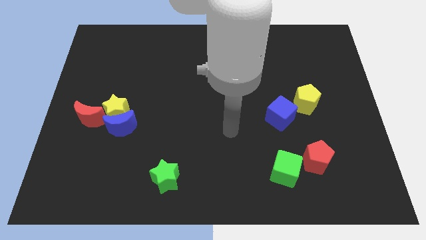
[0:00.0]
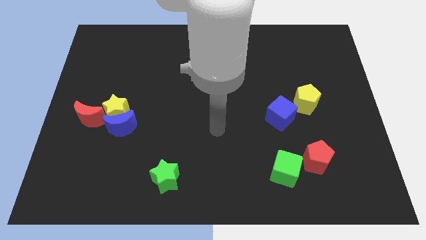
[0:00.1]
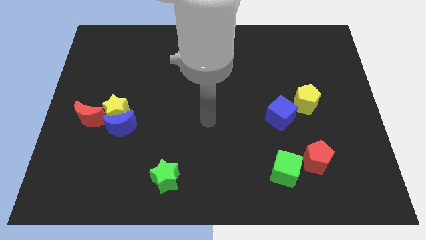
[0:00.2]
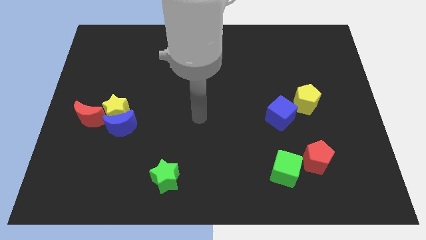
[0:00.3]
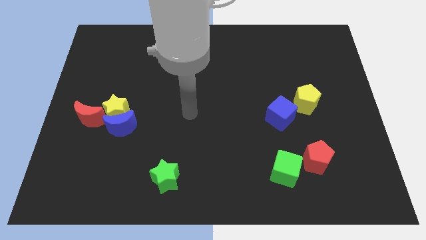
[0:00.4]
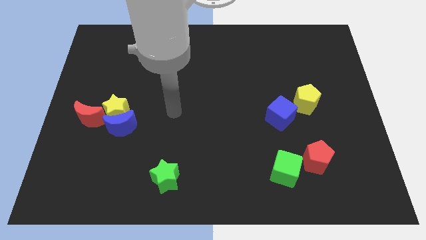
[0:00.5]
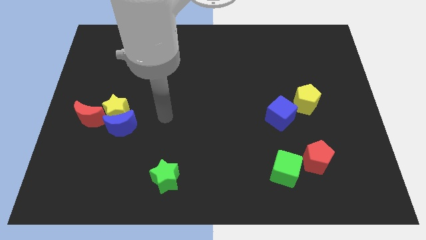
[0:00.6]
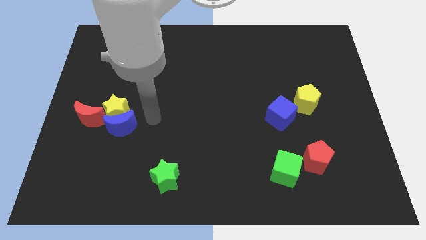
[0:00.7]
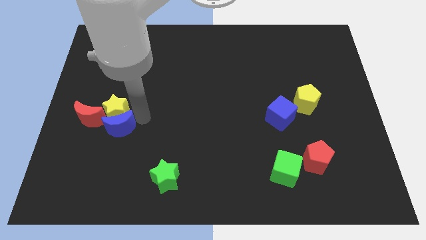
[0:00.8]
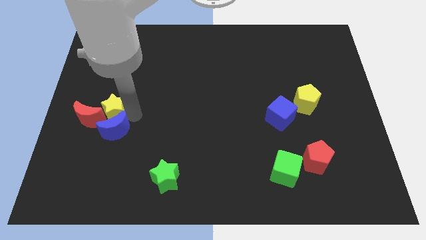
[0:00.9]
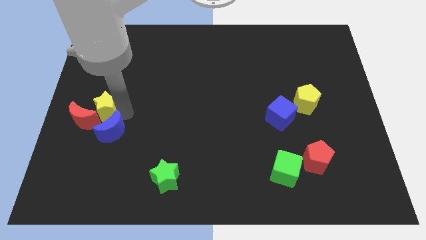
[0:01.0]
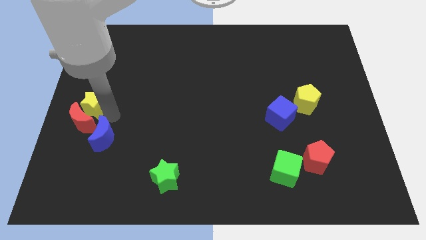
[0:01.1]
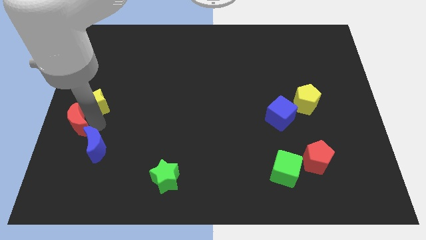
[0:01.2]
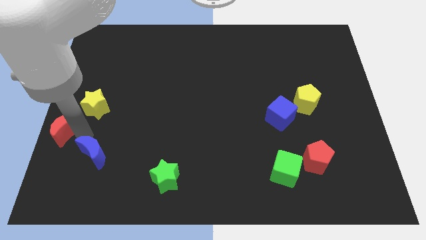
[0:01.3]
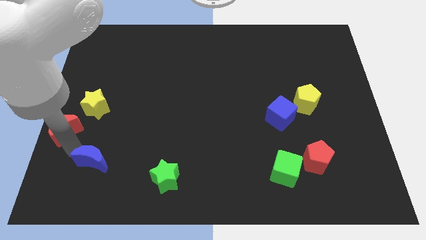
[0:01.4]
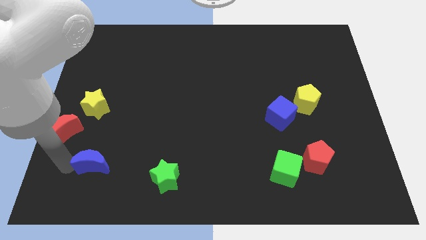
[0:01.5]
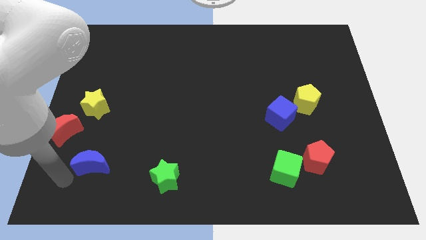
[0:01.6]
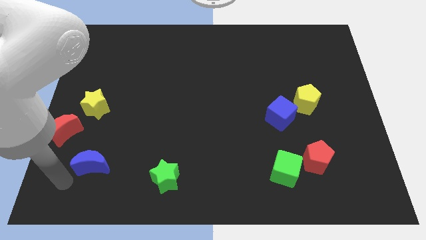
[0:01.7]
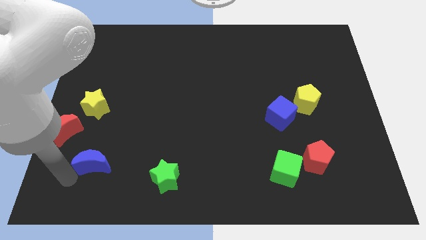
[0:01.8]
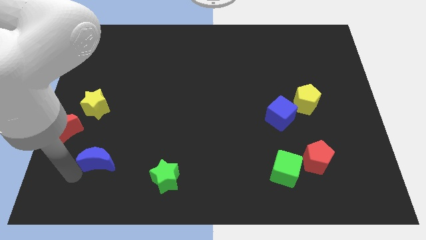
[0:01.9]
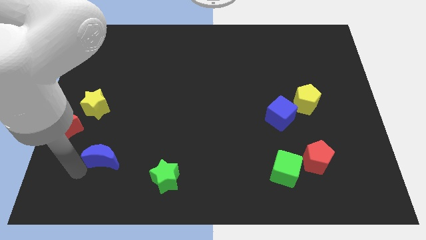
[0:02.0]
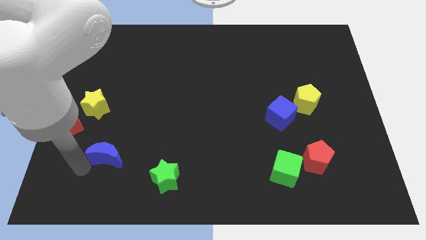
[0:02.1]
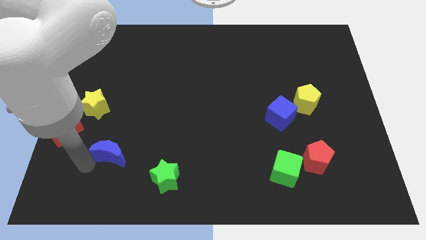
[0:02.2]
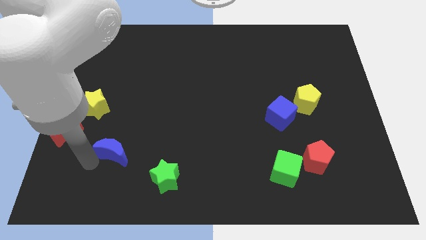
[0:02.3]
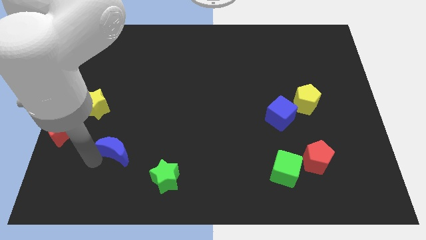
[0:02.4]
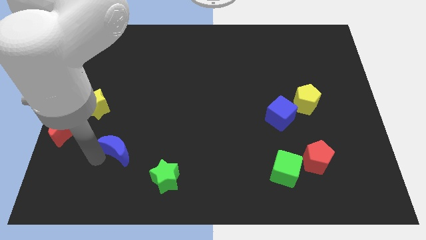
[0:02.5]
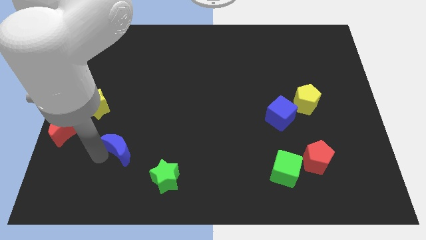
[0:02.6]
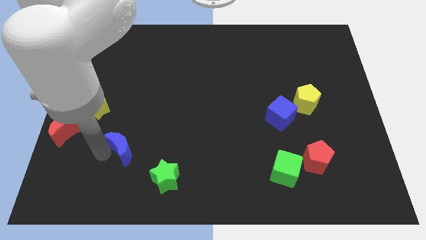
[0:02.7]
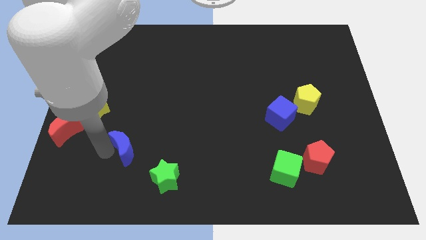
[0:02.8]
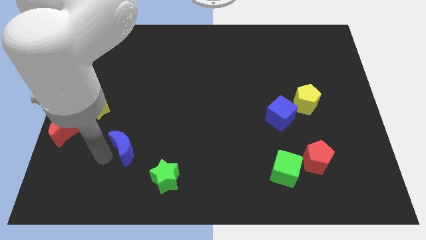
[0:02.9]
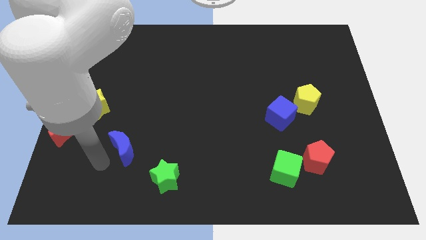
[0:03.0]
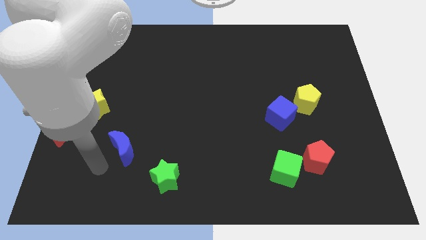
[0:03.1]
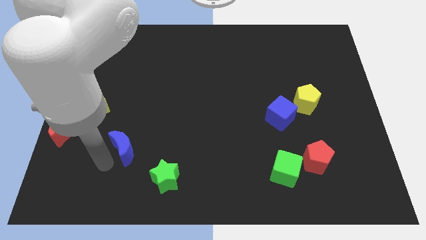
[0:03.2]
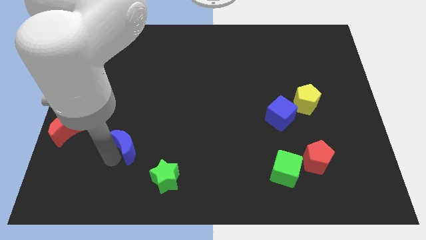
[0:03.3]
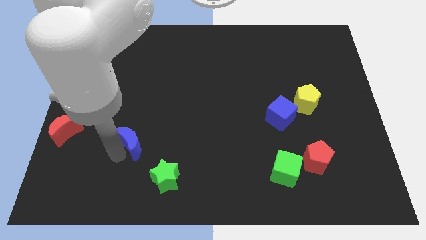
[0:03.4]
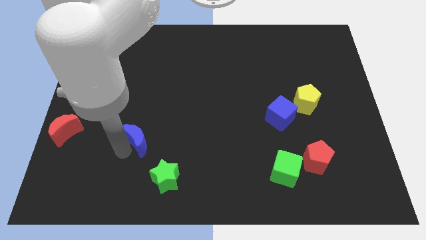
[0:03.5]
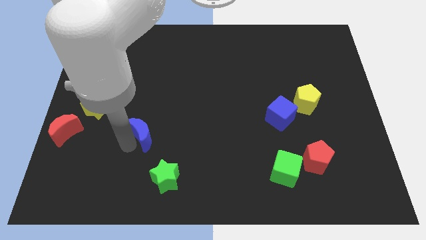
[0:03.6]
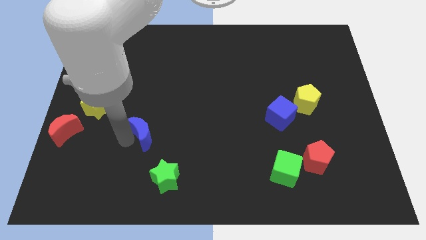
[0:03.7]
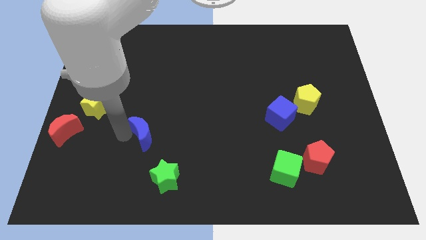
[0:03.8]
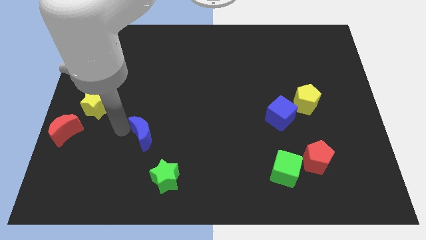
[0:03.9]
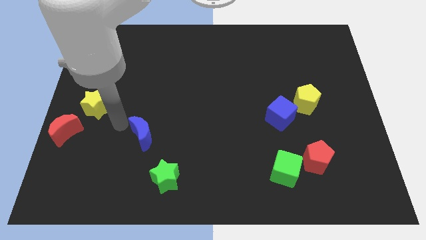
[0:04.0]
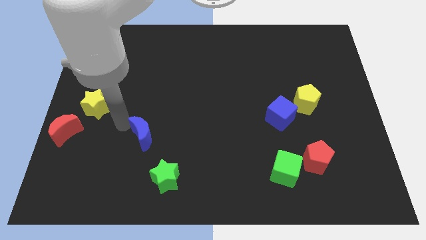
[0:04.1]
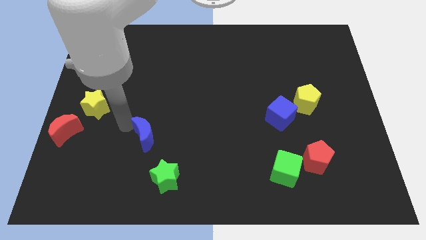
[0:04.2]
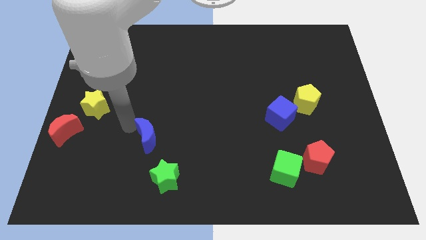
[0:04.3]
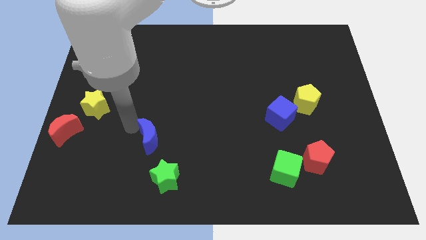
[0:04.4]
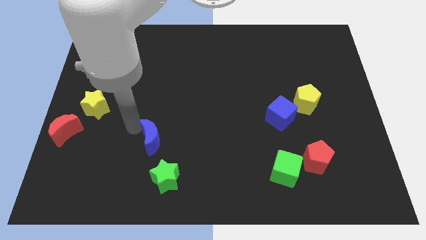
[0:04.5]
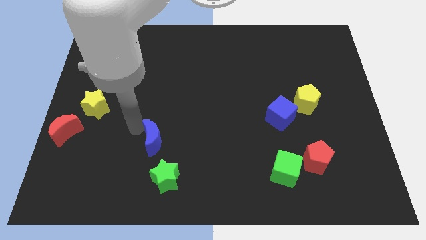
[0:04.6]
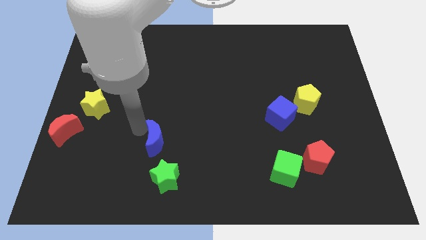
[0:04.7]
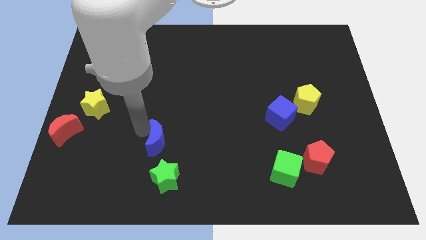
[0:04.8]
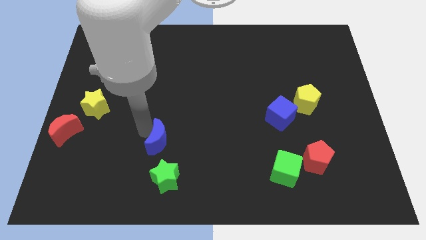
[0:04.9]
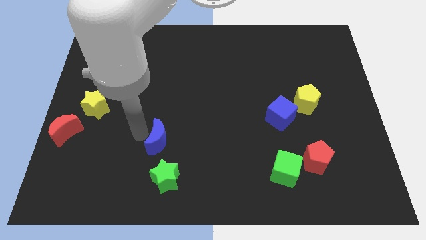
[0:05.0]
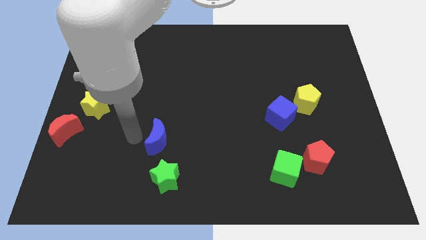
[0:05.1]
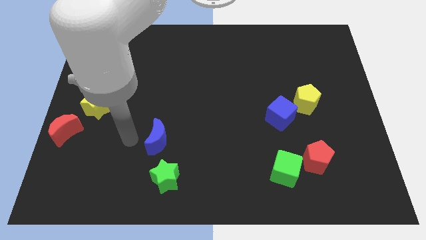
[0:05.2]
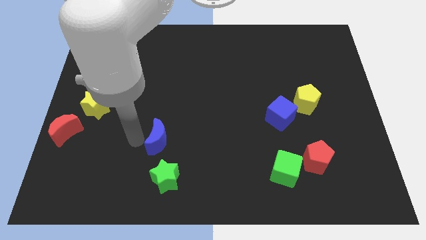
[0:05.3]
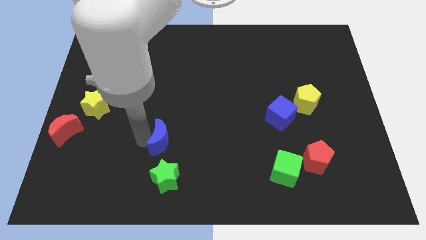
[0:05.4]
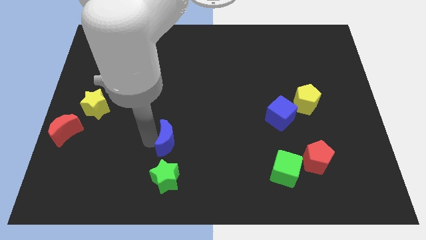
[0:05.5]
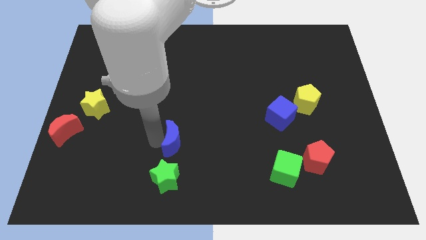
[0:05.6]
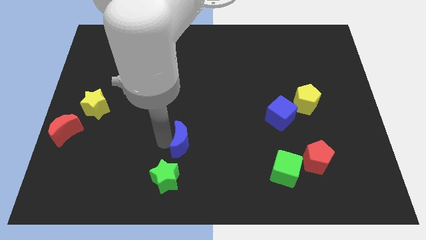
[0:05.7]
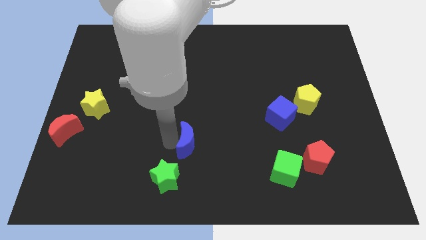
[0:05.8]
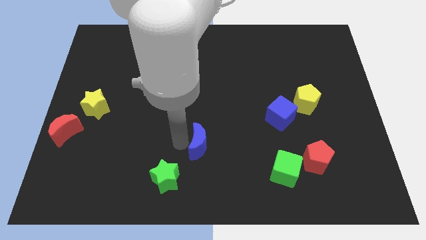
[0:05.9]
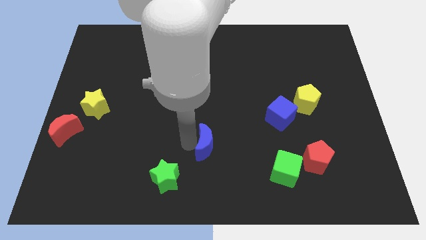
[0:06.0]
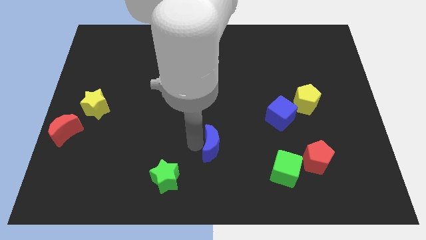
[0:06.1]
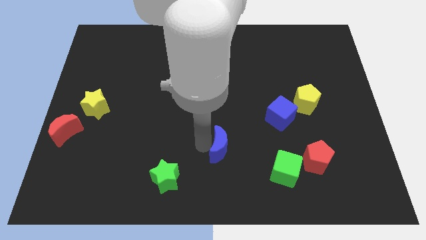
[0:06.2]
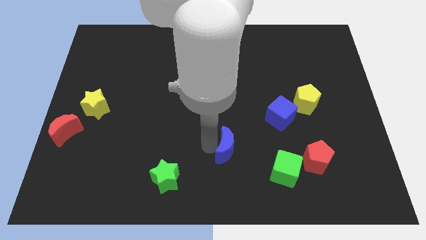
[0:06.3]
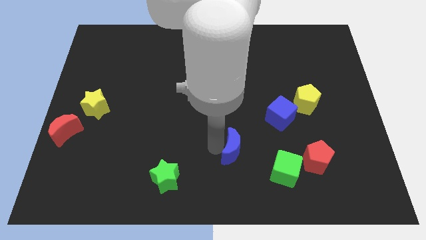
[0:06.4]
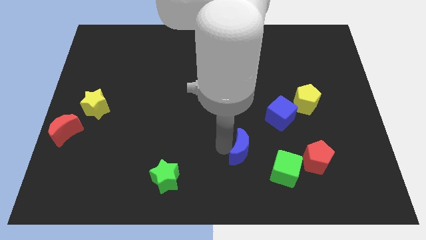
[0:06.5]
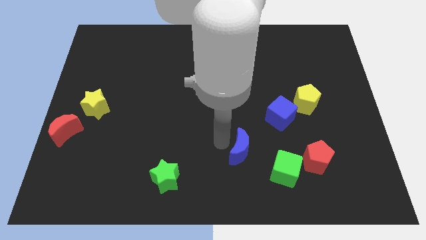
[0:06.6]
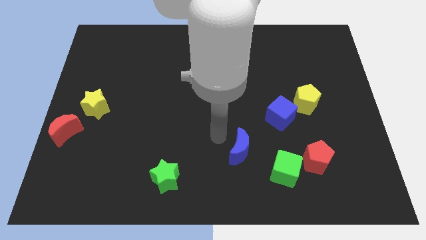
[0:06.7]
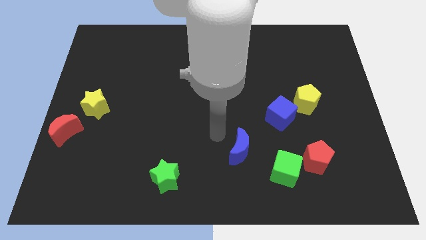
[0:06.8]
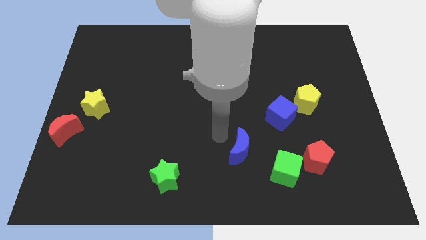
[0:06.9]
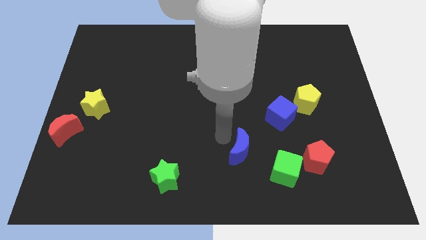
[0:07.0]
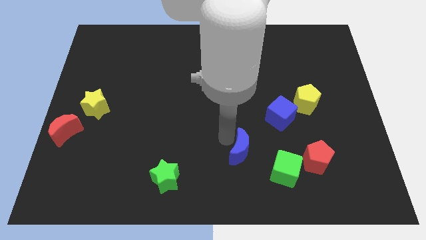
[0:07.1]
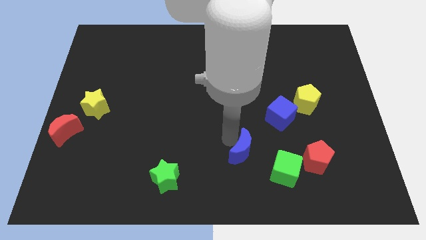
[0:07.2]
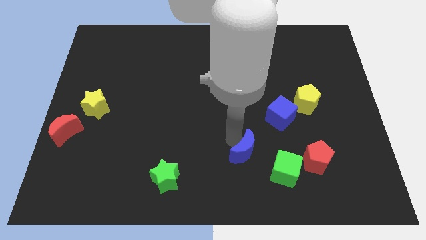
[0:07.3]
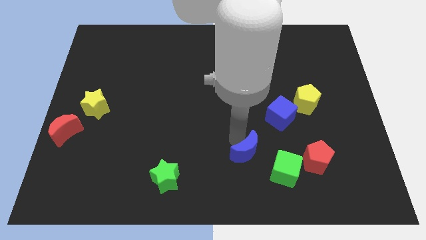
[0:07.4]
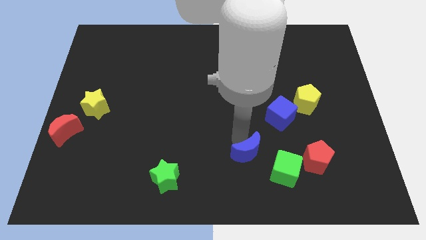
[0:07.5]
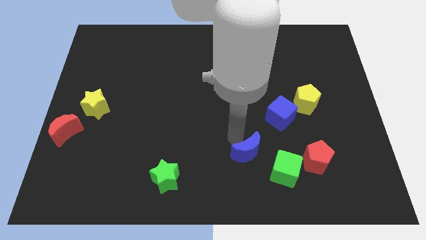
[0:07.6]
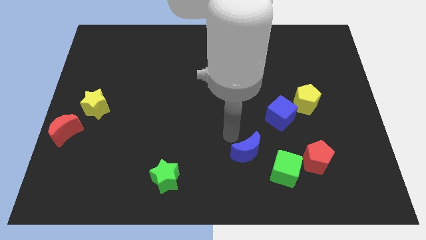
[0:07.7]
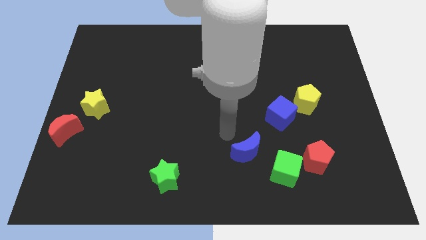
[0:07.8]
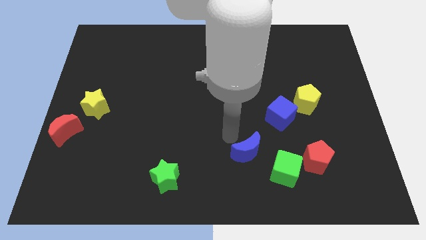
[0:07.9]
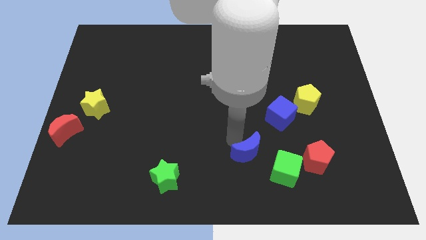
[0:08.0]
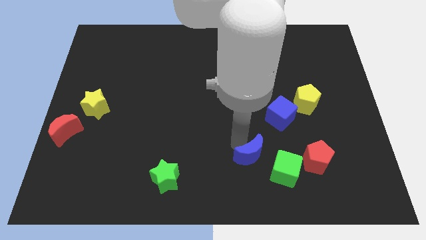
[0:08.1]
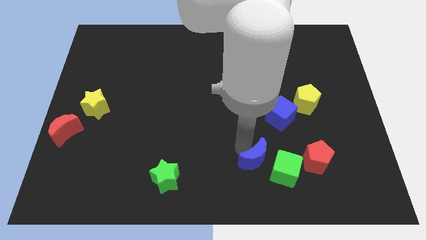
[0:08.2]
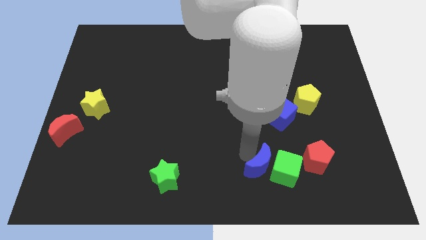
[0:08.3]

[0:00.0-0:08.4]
put the blue moon next to the green cube
